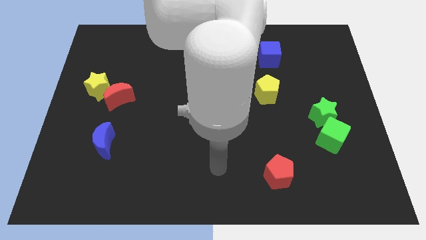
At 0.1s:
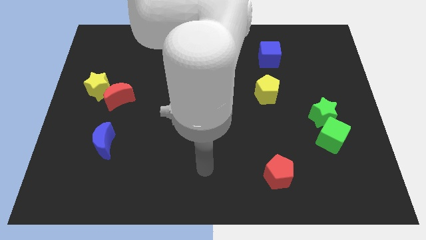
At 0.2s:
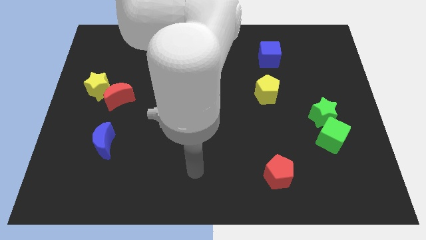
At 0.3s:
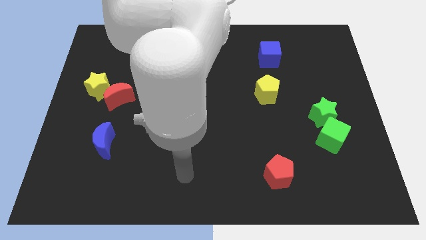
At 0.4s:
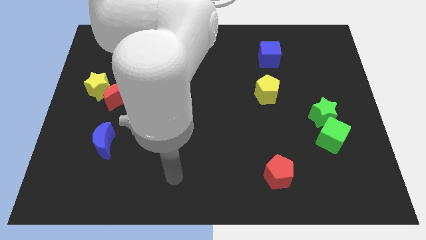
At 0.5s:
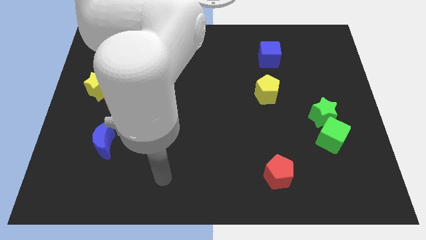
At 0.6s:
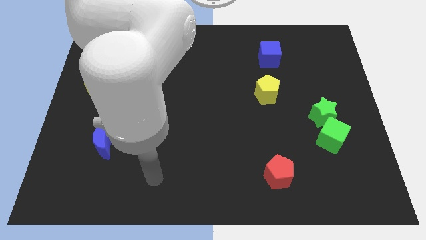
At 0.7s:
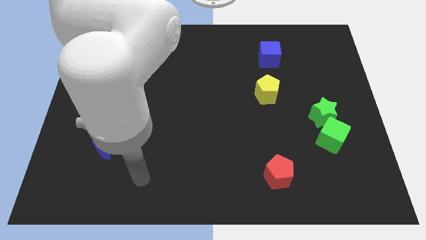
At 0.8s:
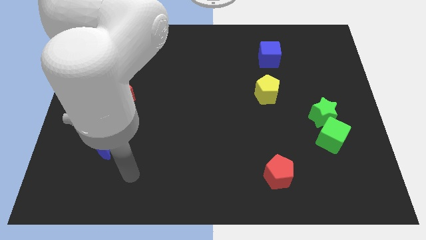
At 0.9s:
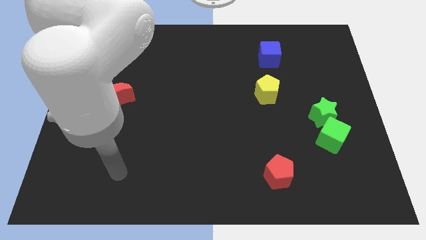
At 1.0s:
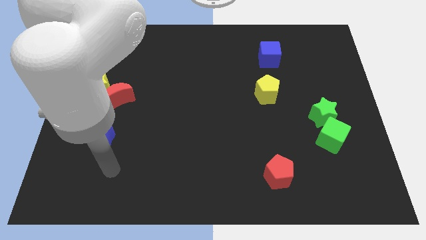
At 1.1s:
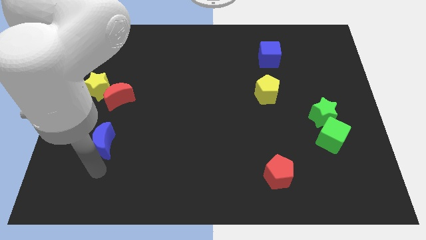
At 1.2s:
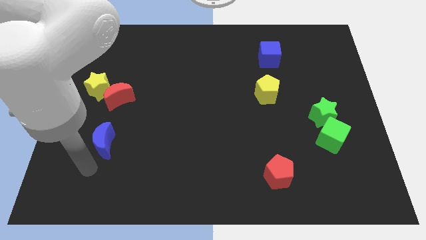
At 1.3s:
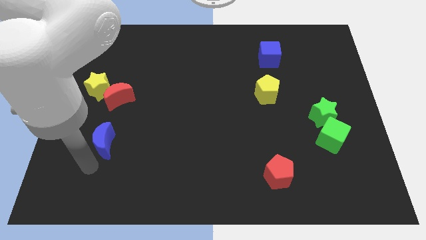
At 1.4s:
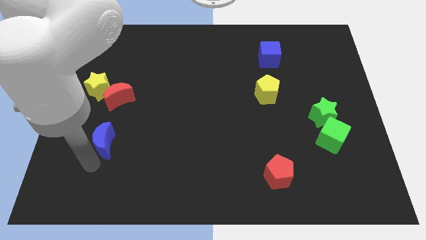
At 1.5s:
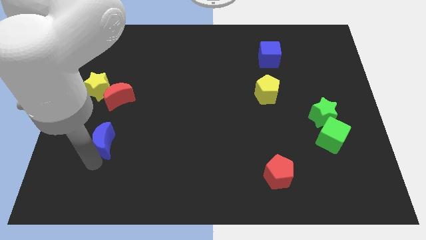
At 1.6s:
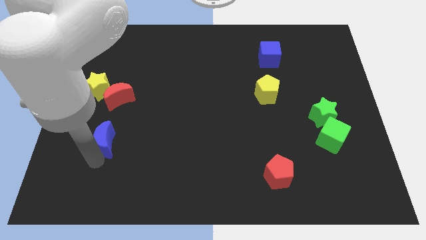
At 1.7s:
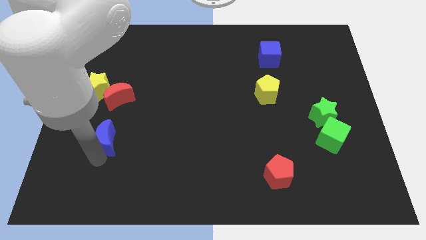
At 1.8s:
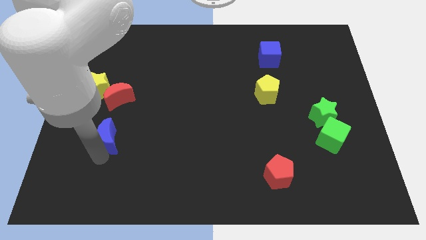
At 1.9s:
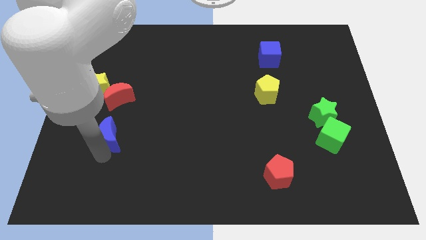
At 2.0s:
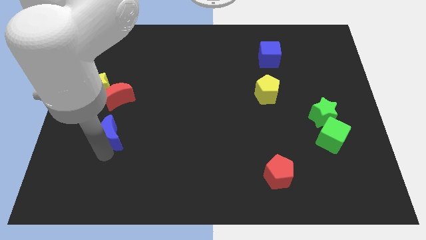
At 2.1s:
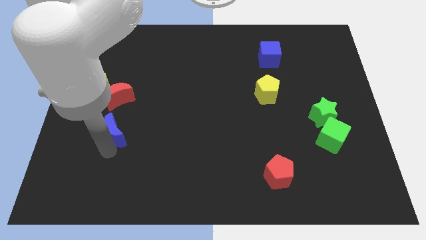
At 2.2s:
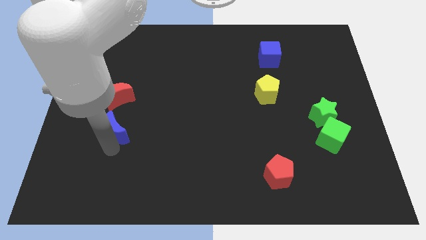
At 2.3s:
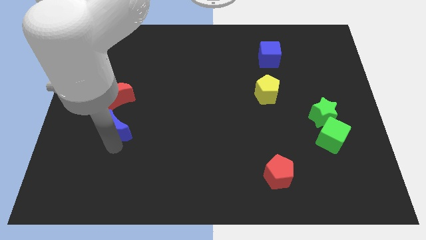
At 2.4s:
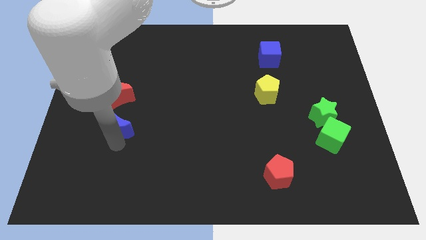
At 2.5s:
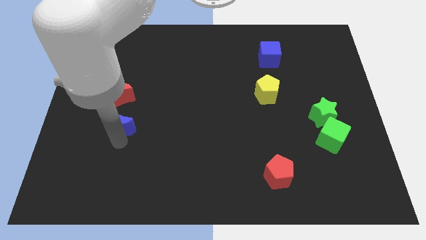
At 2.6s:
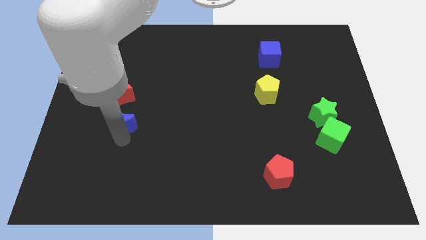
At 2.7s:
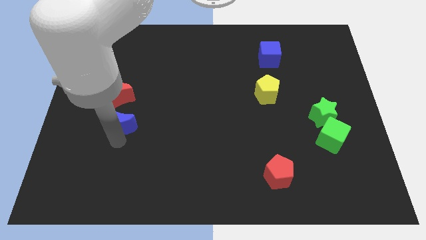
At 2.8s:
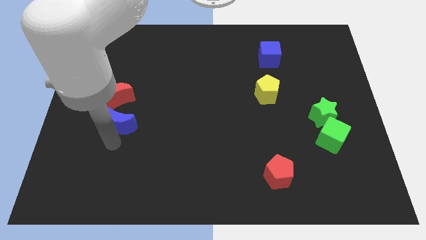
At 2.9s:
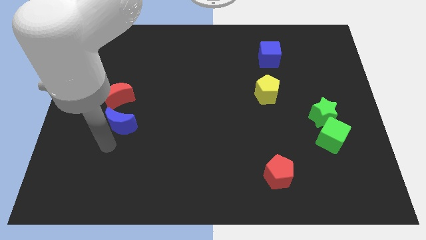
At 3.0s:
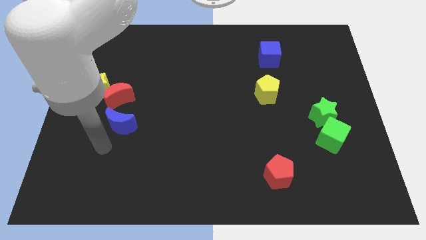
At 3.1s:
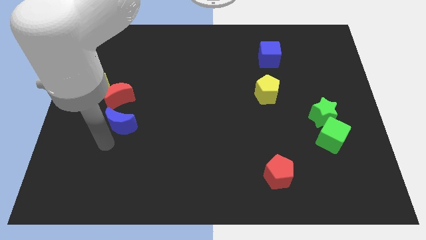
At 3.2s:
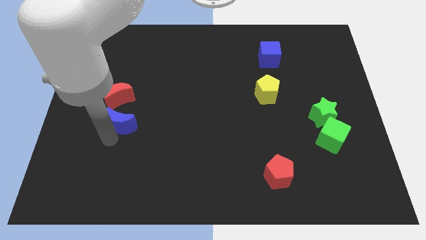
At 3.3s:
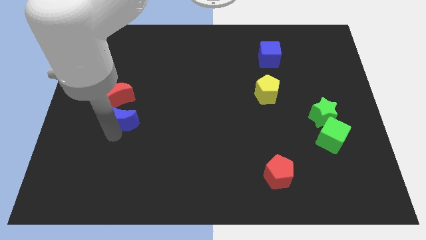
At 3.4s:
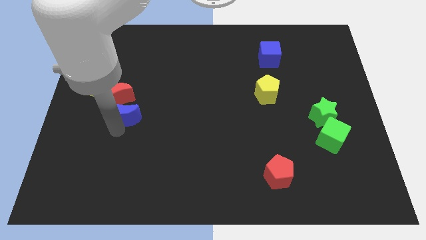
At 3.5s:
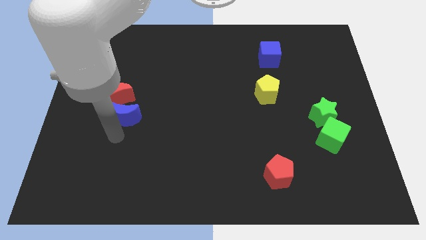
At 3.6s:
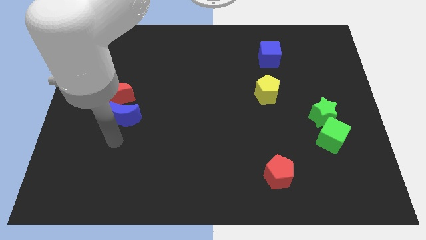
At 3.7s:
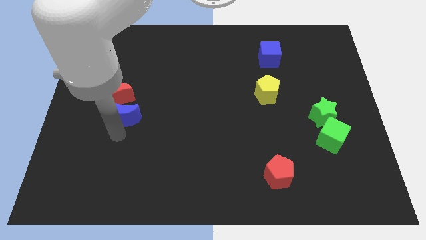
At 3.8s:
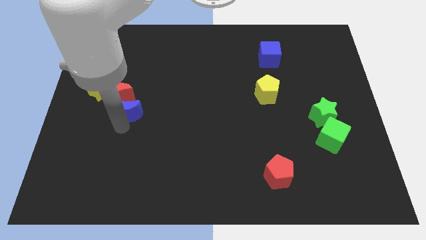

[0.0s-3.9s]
slide the blue moon up a little

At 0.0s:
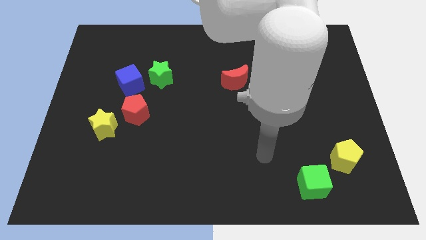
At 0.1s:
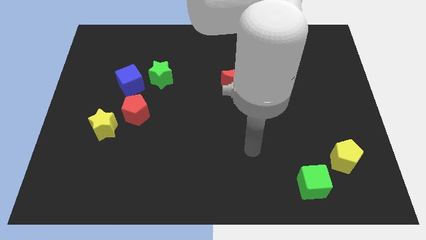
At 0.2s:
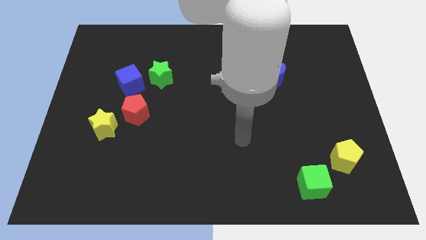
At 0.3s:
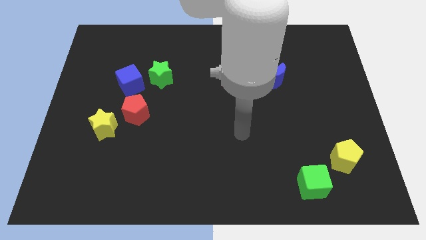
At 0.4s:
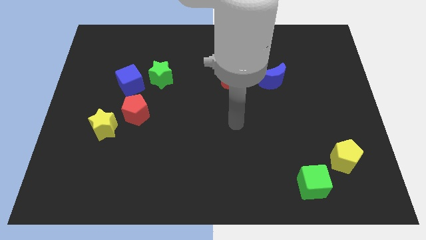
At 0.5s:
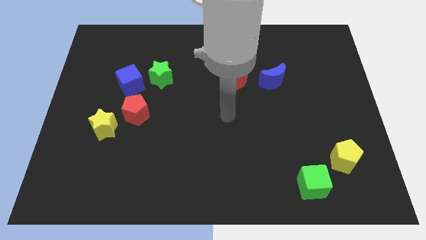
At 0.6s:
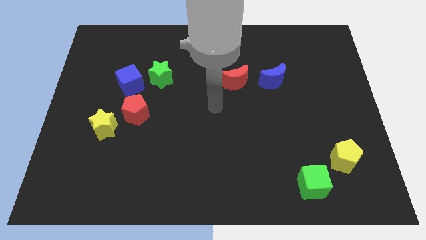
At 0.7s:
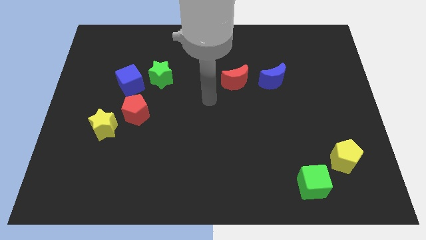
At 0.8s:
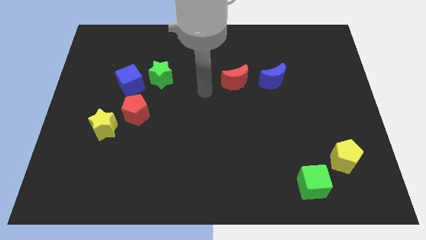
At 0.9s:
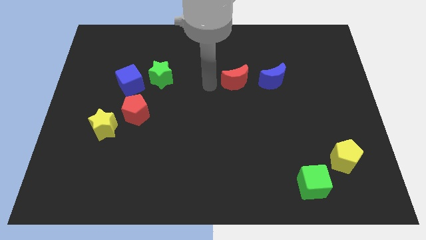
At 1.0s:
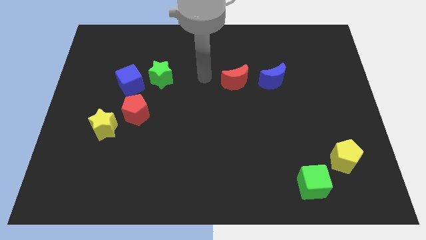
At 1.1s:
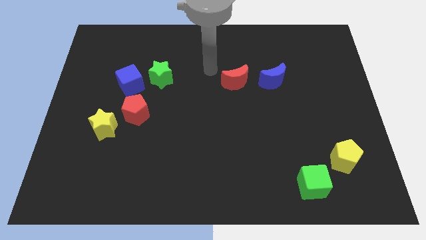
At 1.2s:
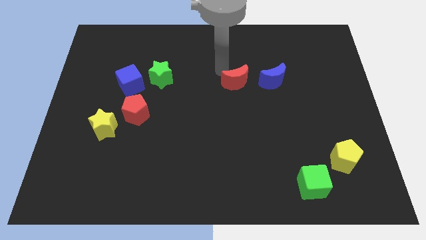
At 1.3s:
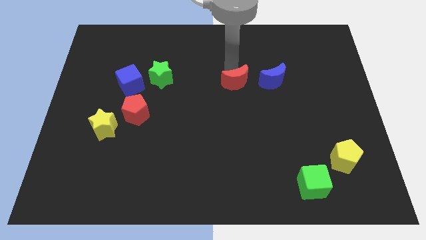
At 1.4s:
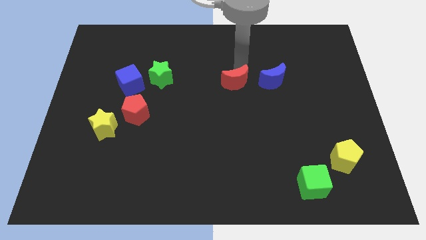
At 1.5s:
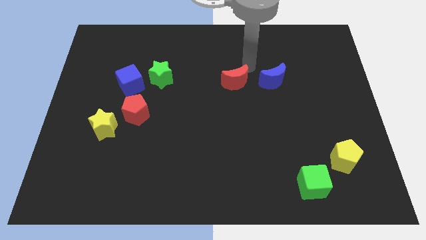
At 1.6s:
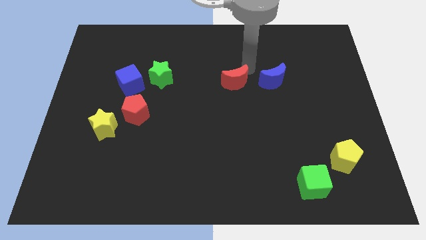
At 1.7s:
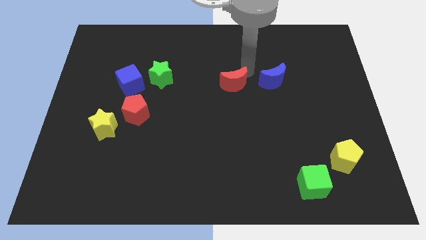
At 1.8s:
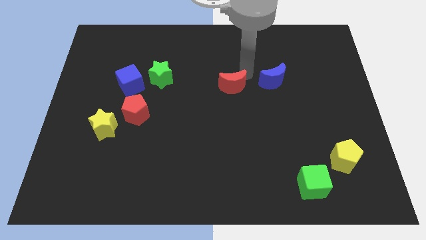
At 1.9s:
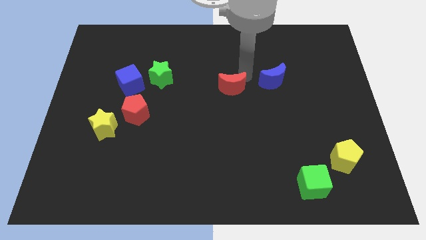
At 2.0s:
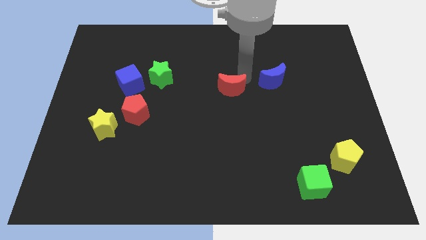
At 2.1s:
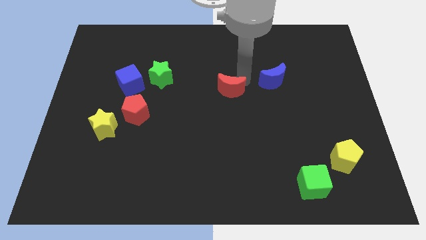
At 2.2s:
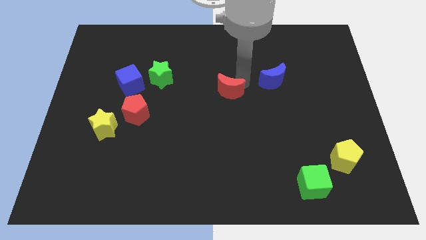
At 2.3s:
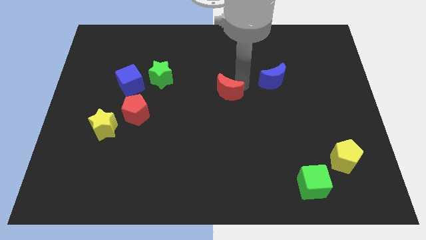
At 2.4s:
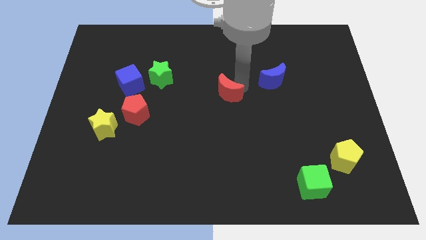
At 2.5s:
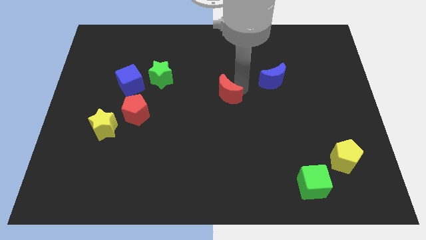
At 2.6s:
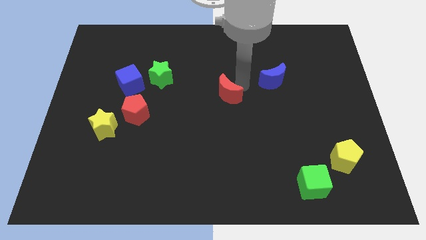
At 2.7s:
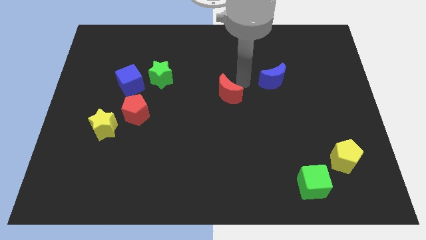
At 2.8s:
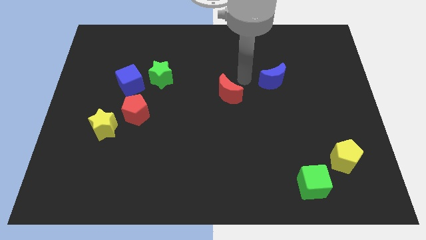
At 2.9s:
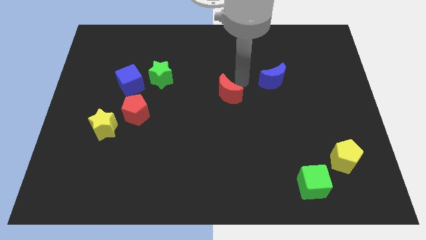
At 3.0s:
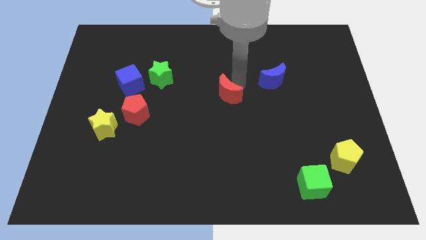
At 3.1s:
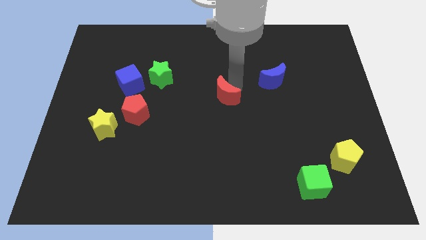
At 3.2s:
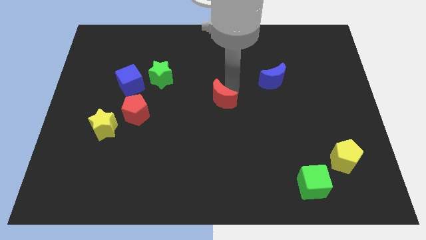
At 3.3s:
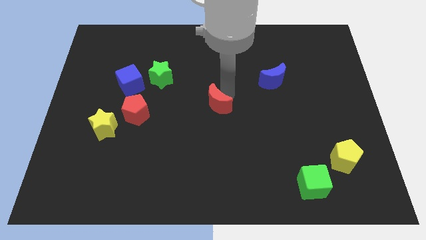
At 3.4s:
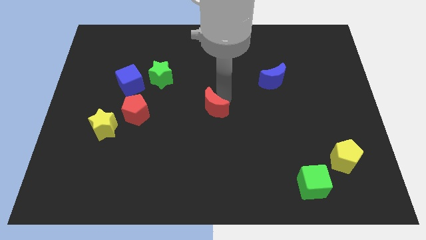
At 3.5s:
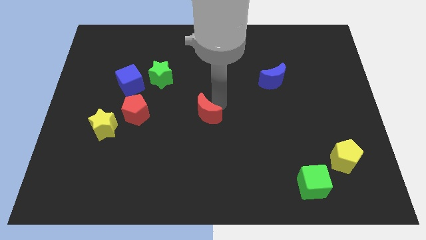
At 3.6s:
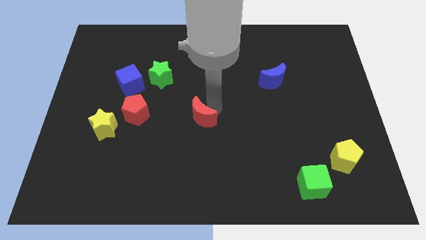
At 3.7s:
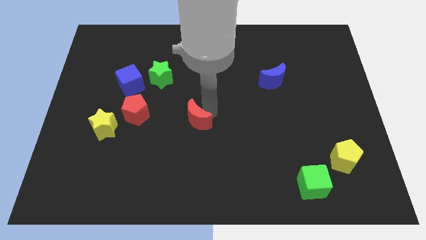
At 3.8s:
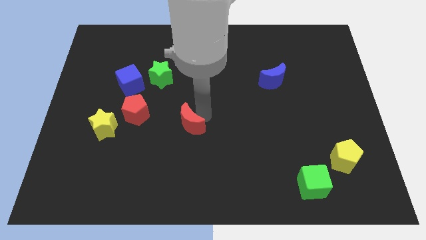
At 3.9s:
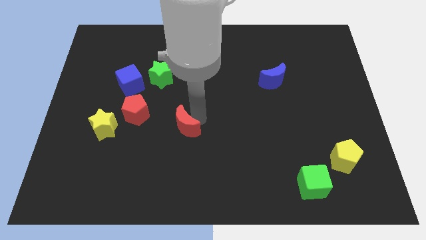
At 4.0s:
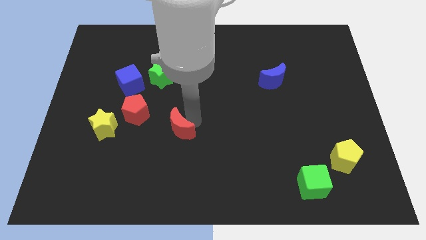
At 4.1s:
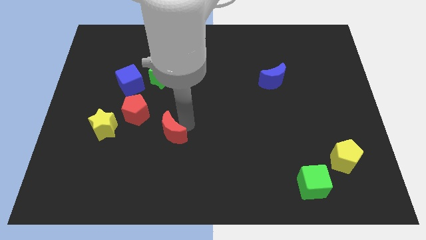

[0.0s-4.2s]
move the red moon diagonally down and left
